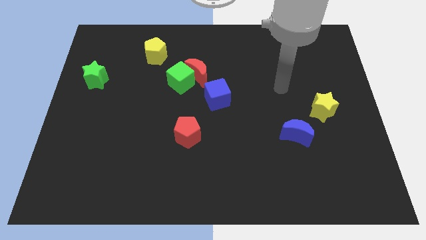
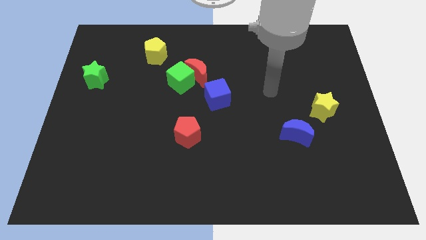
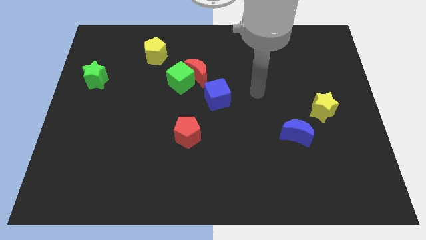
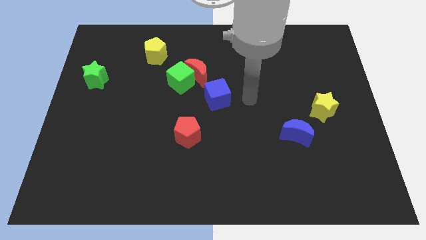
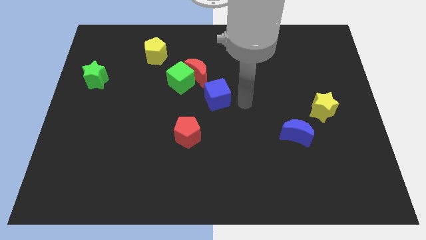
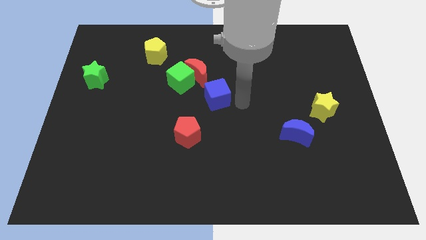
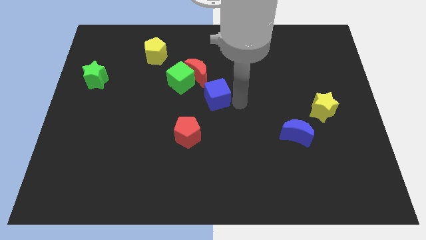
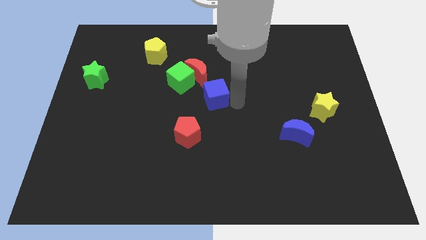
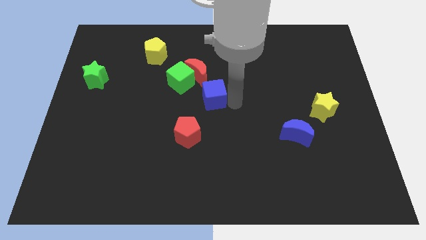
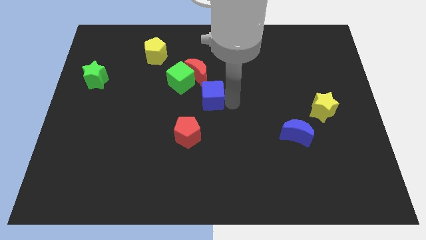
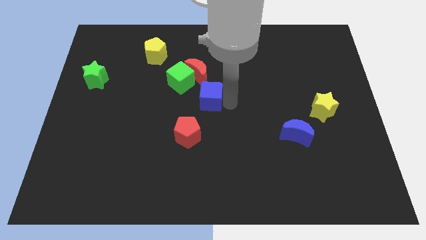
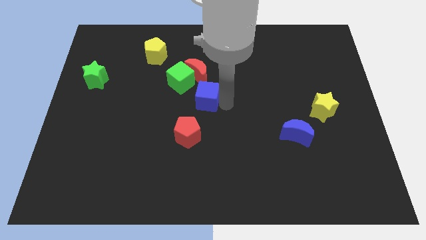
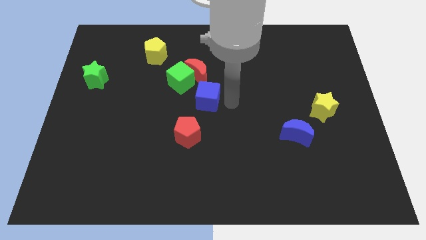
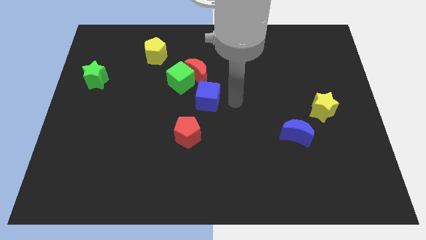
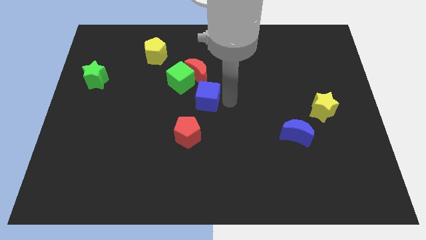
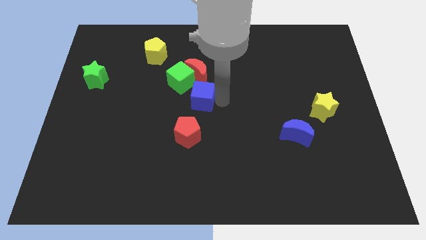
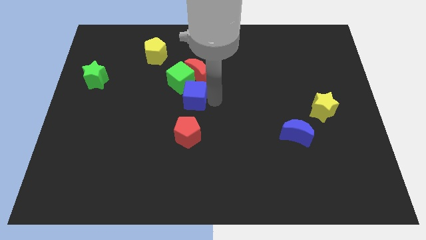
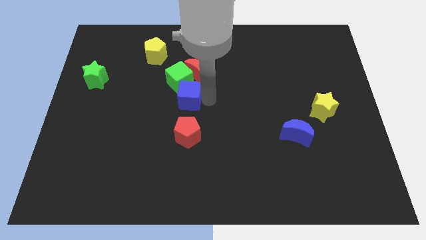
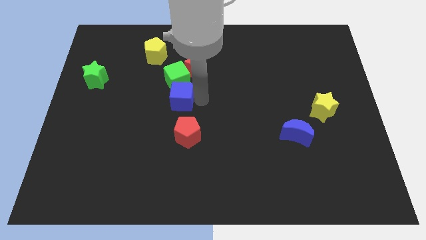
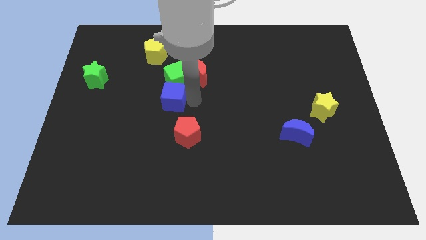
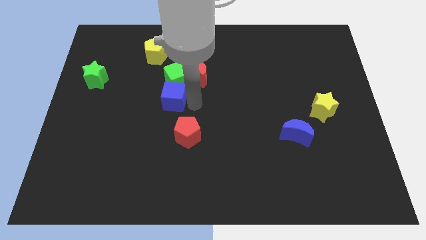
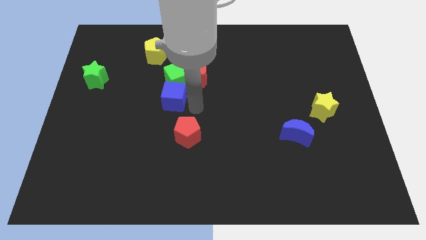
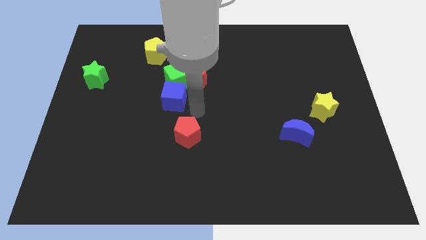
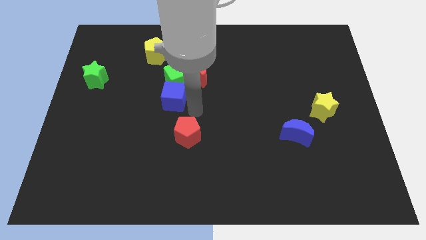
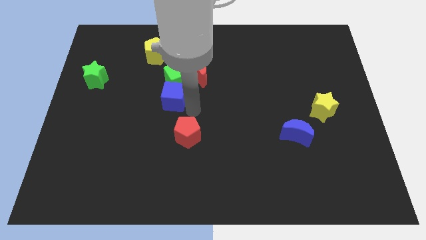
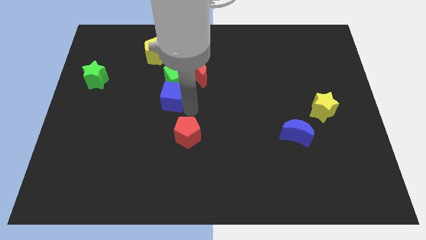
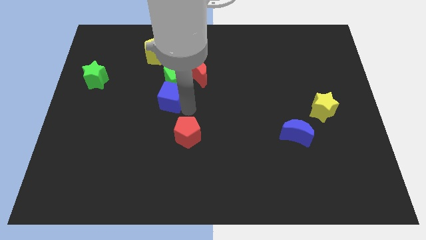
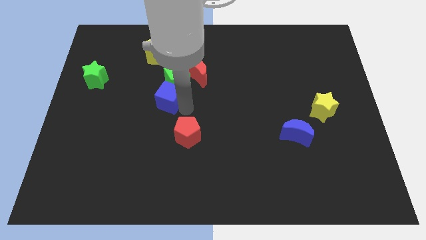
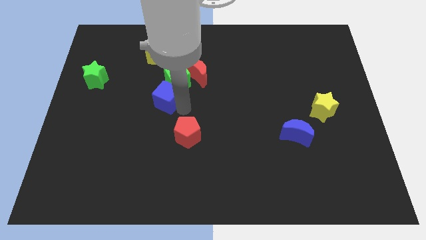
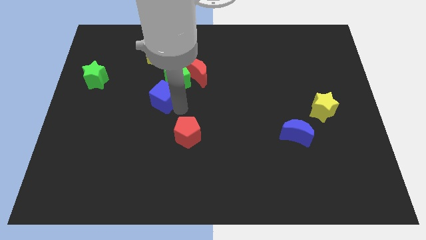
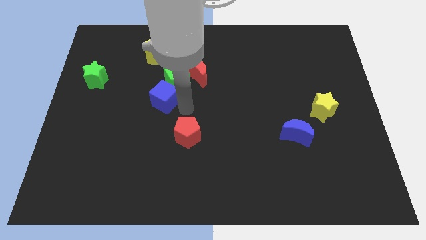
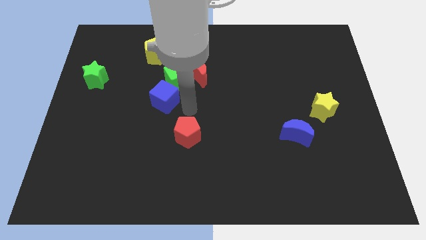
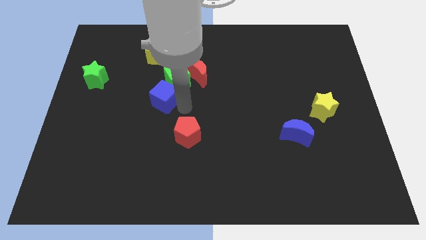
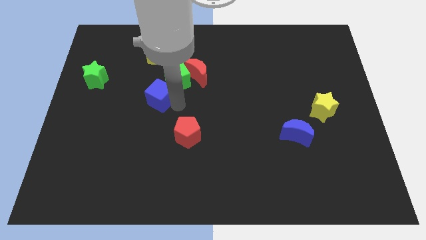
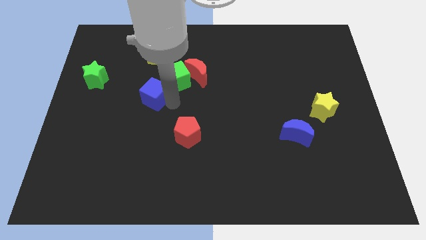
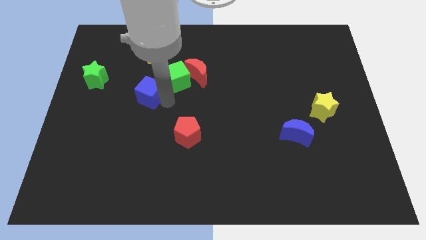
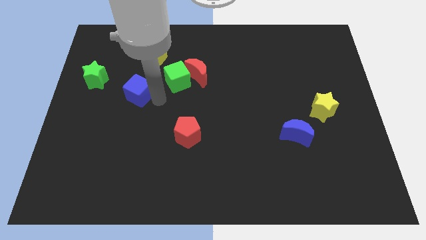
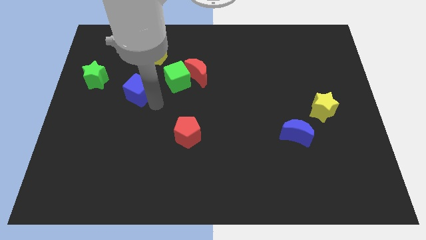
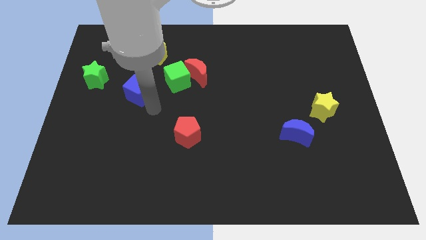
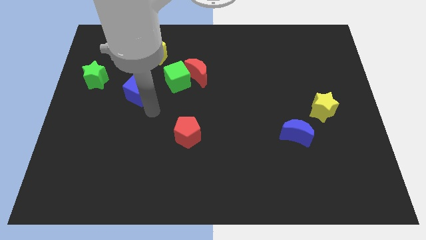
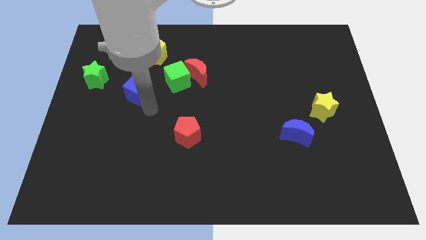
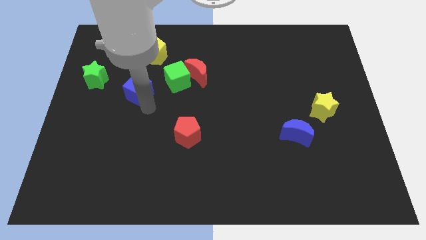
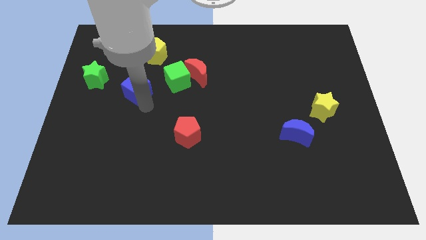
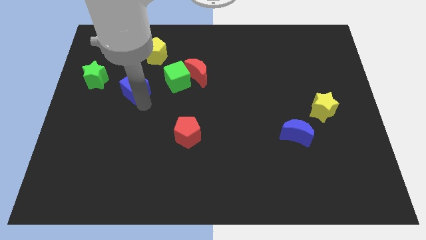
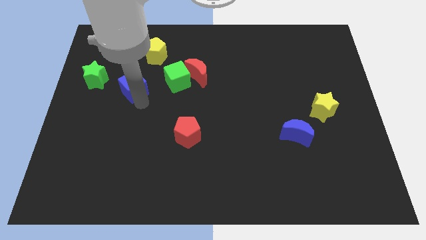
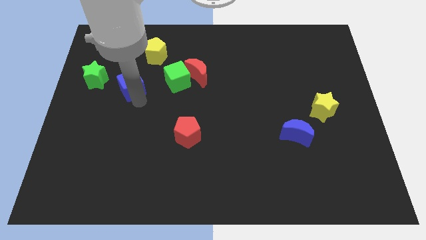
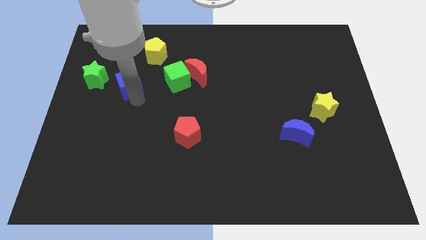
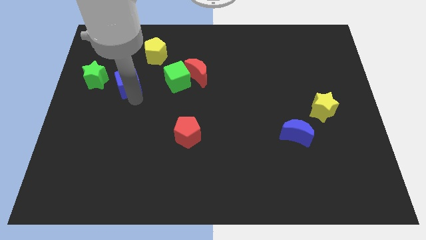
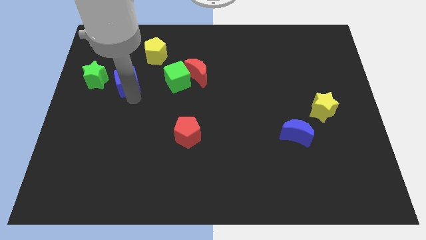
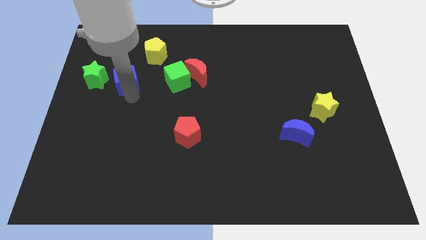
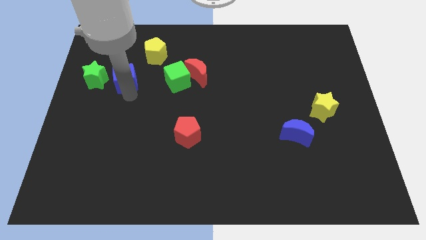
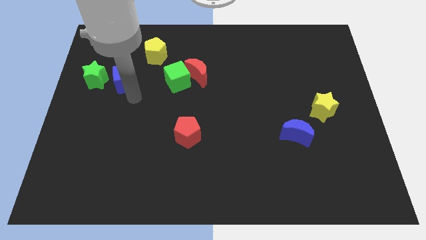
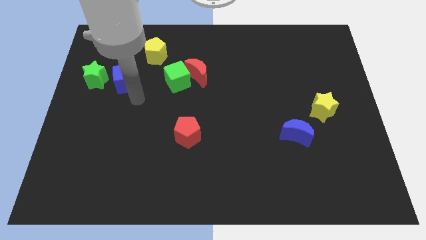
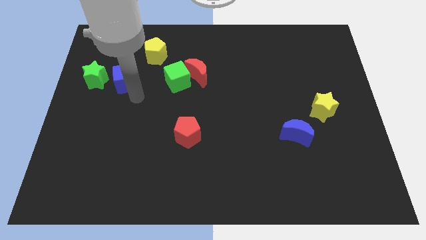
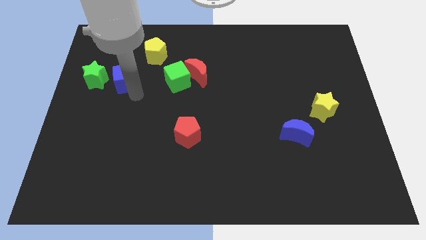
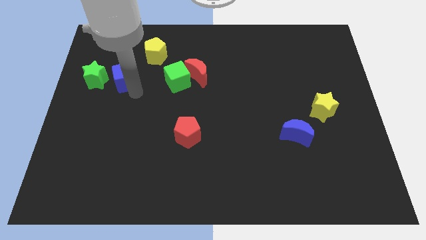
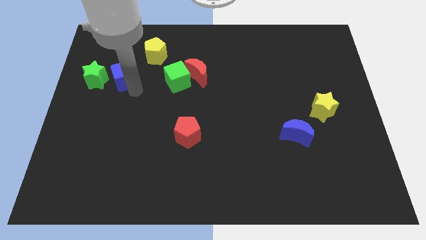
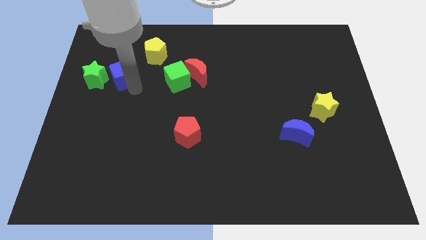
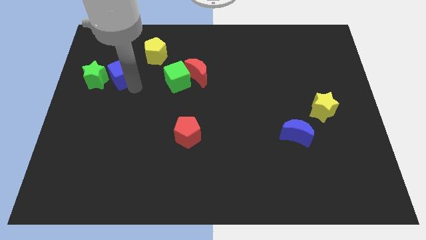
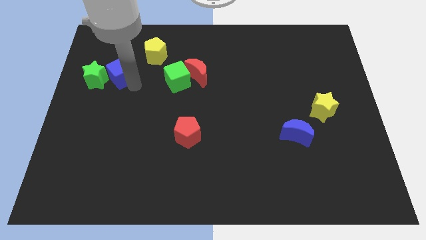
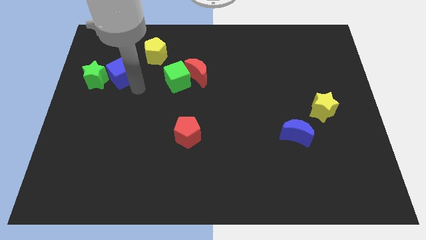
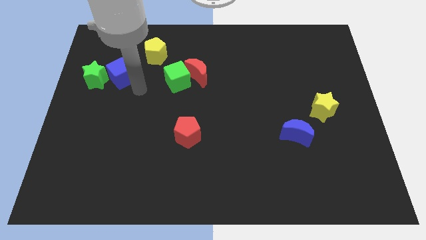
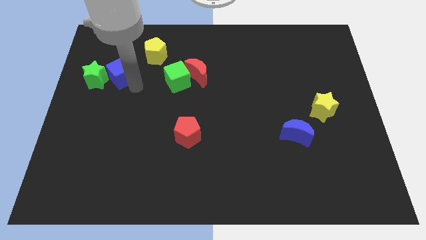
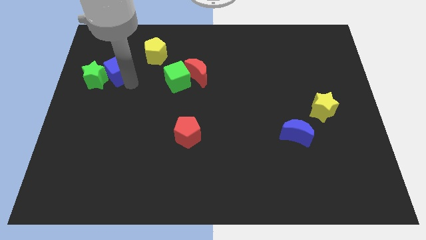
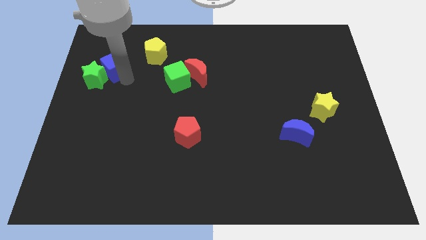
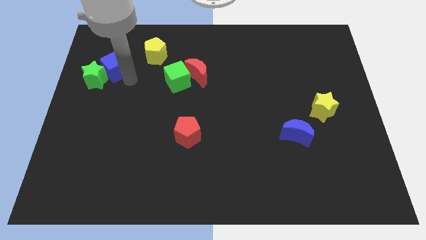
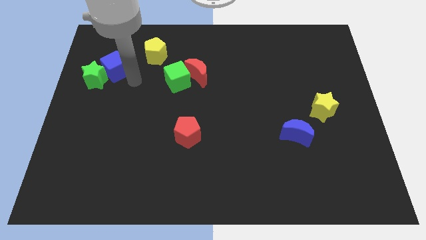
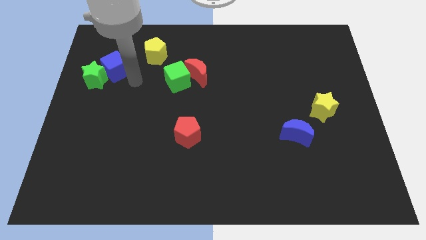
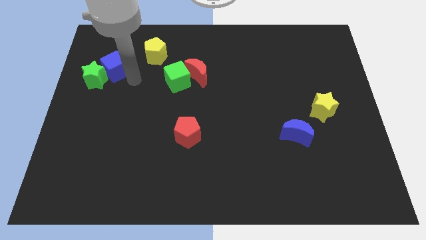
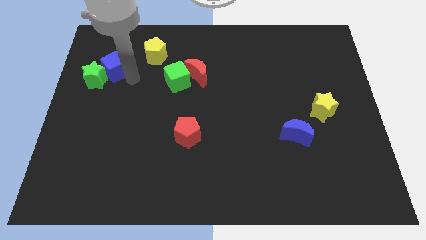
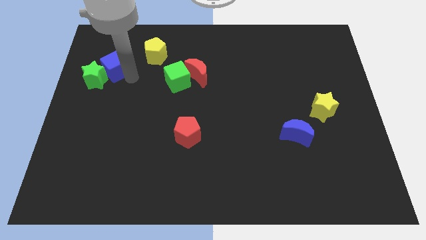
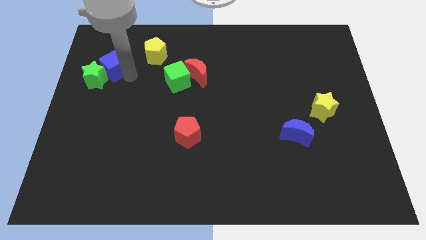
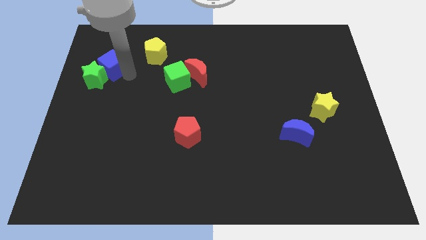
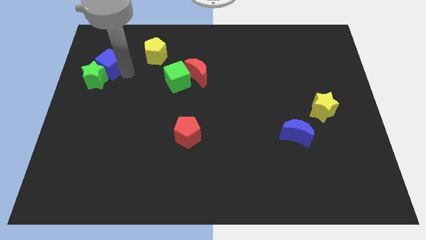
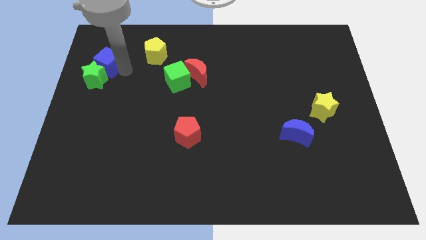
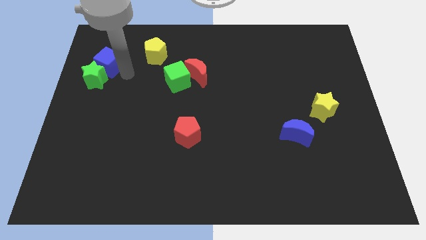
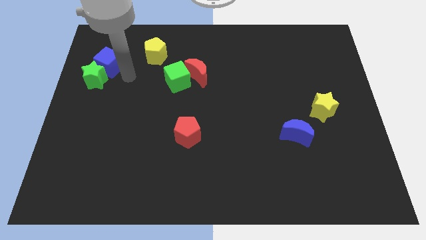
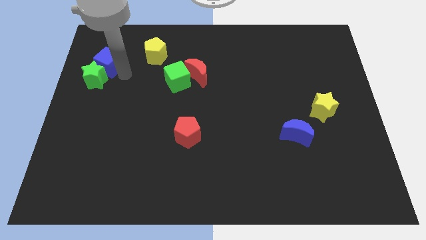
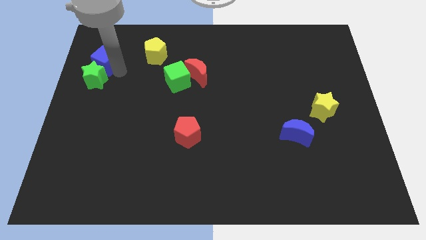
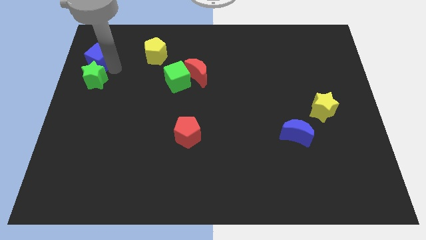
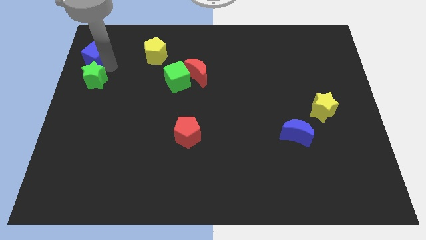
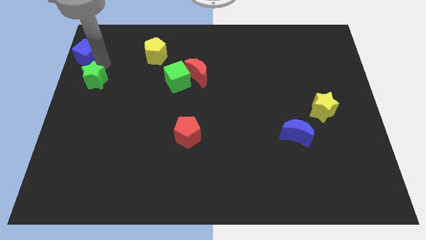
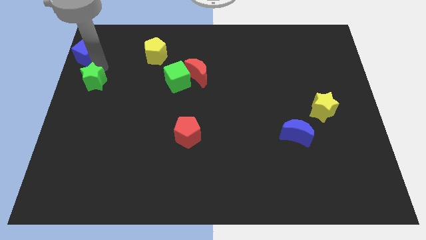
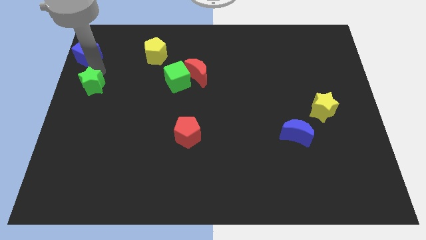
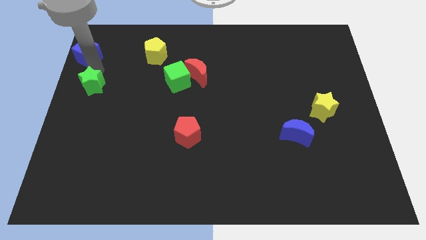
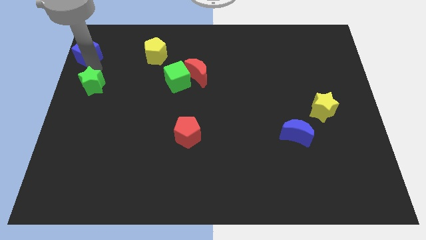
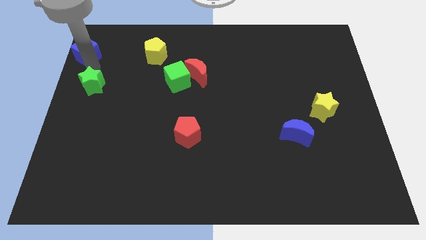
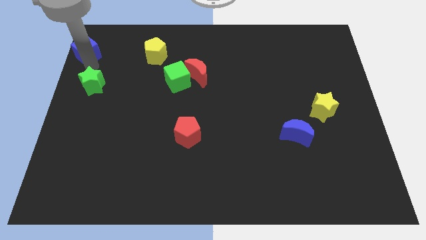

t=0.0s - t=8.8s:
put the blue cube to the upper left corner
